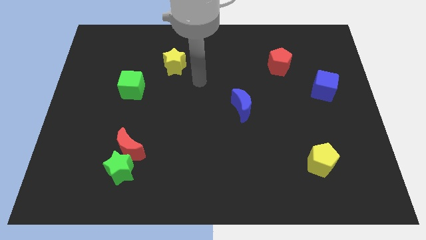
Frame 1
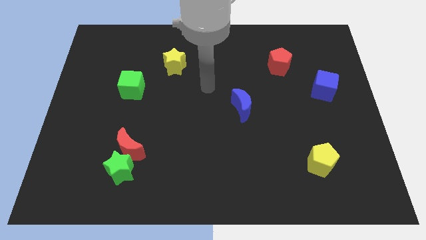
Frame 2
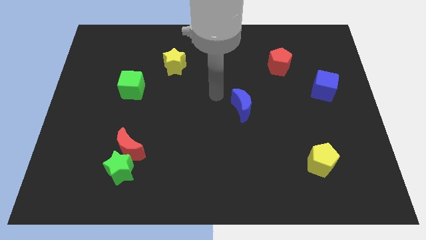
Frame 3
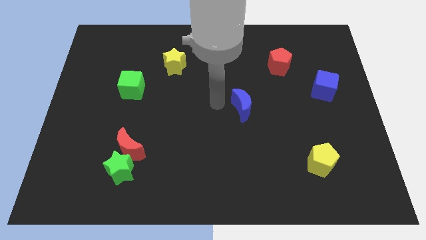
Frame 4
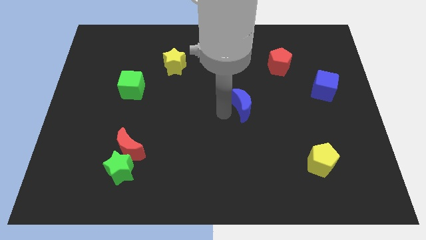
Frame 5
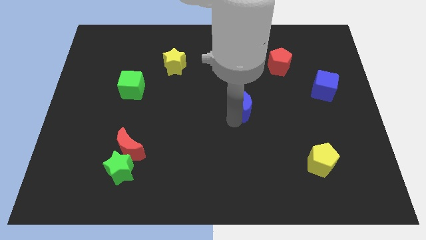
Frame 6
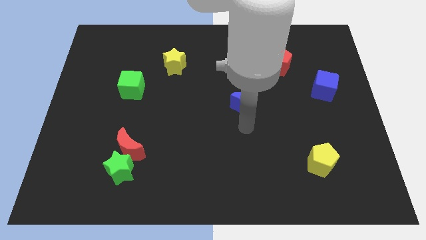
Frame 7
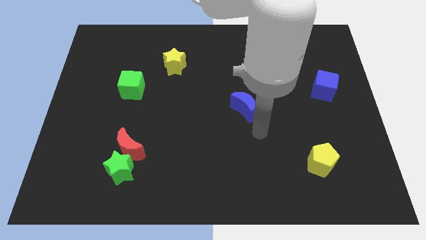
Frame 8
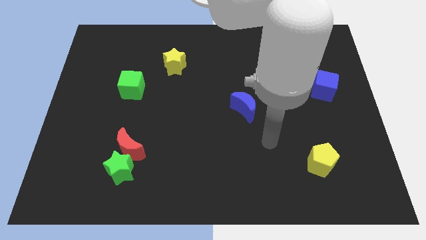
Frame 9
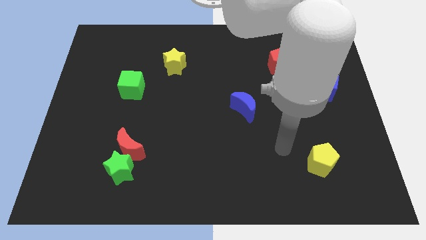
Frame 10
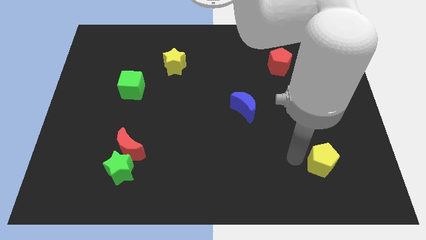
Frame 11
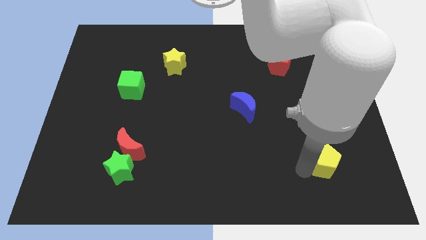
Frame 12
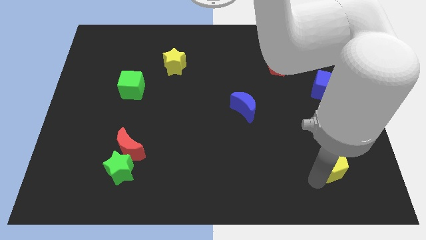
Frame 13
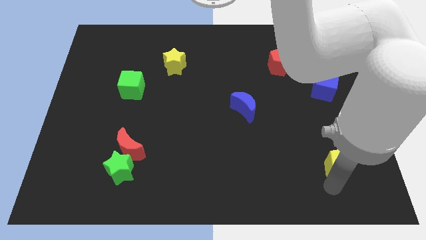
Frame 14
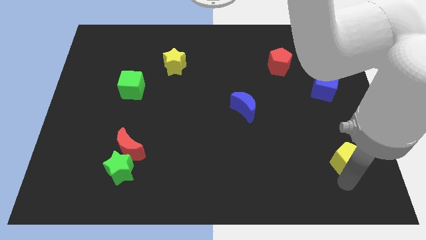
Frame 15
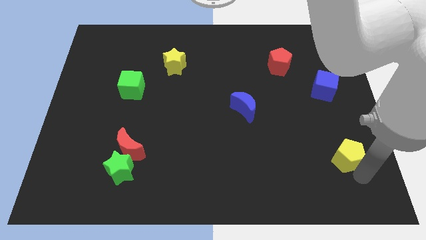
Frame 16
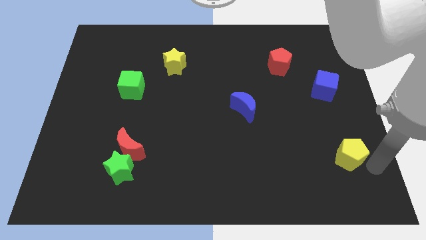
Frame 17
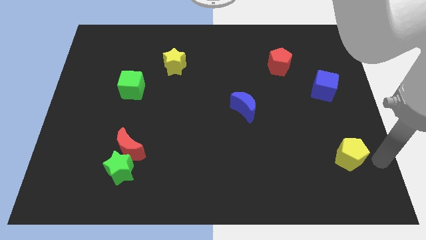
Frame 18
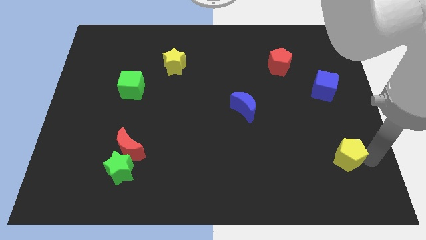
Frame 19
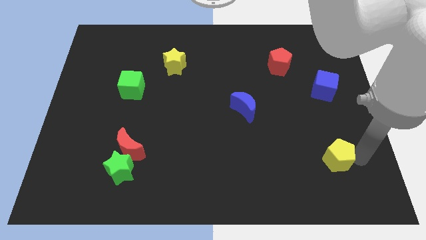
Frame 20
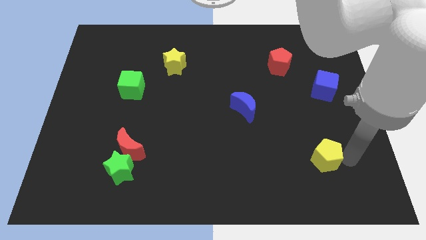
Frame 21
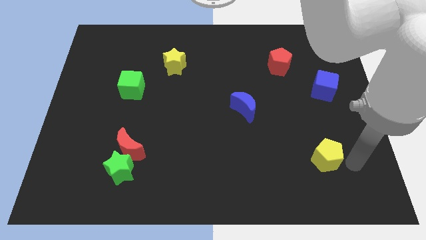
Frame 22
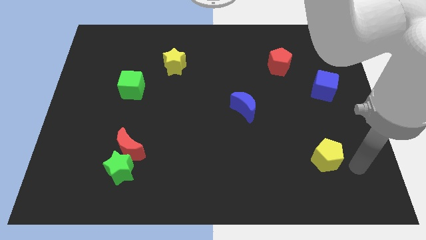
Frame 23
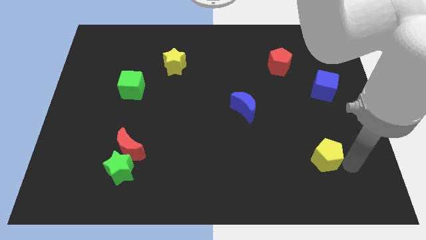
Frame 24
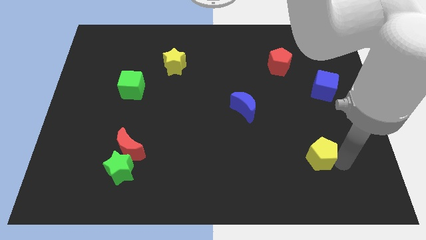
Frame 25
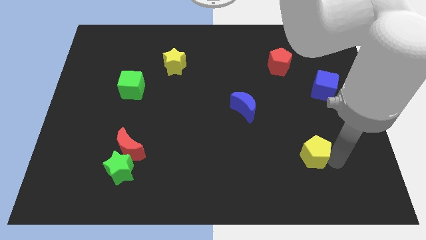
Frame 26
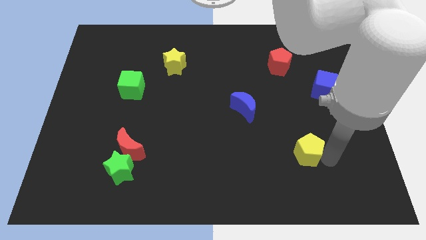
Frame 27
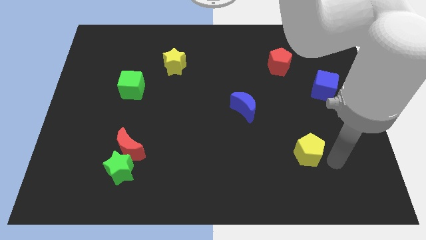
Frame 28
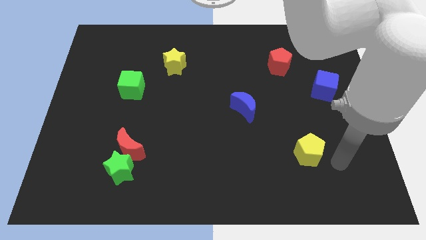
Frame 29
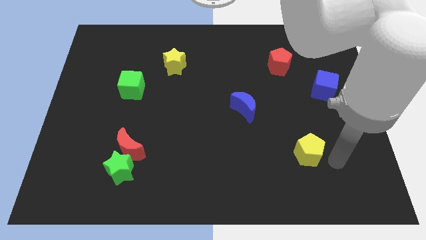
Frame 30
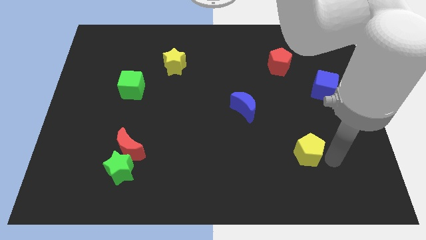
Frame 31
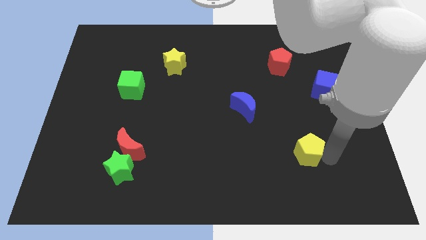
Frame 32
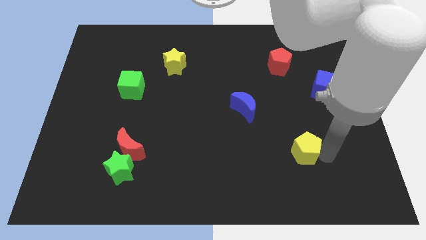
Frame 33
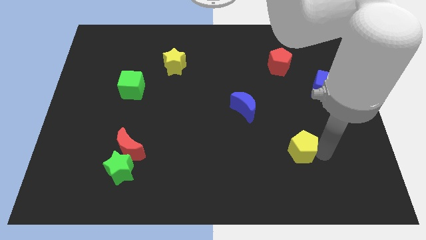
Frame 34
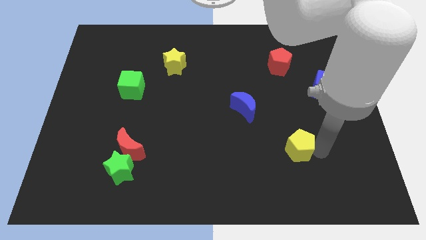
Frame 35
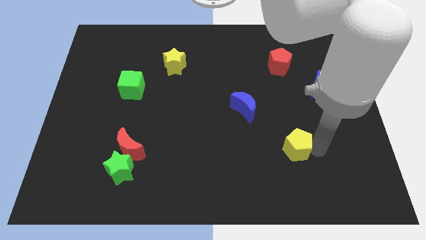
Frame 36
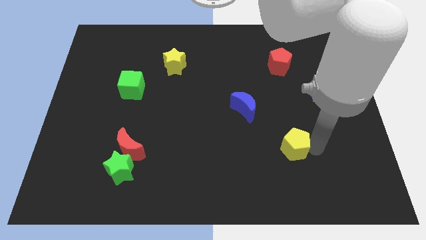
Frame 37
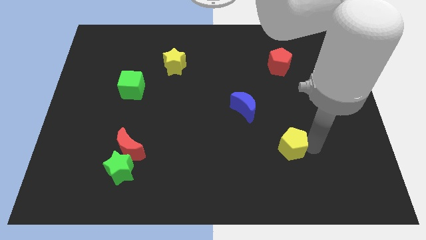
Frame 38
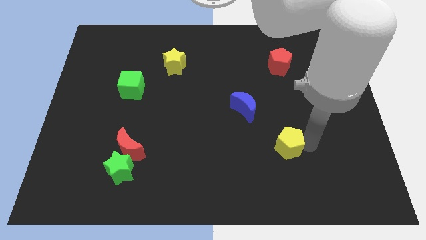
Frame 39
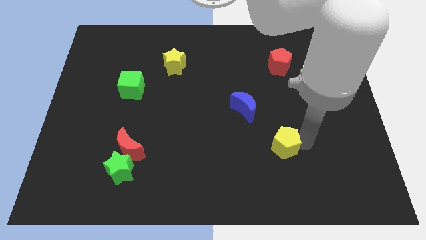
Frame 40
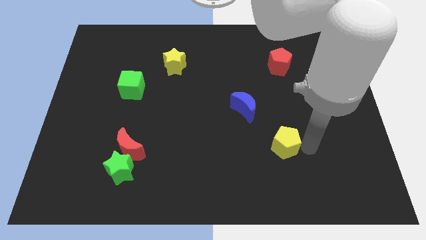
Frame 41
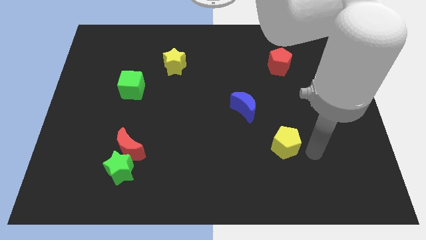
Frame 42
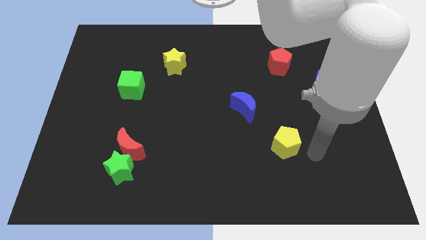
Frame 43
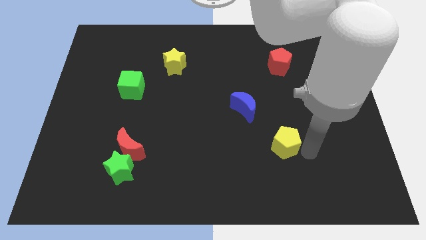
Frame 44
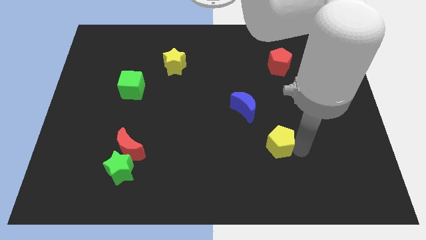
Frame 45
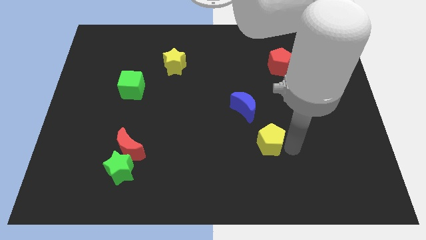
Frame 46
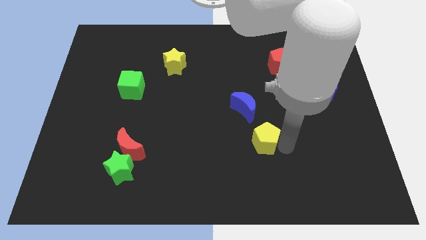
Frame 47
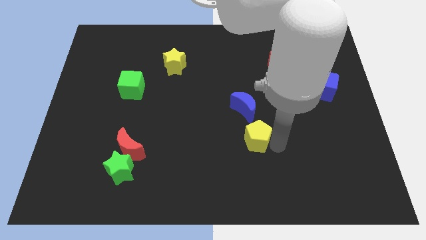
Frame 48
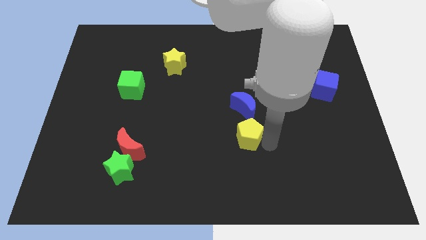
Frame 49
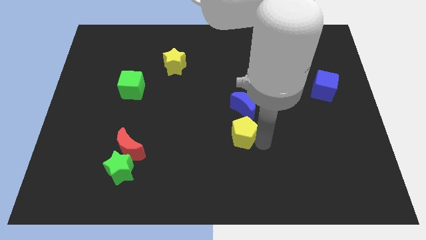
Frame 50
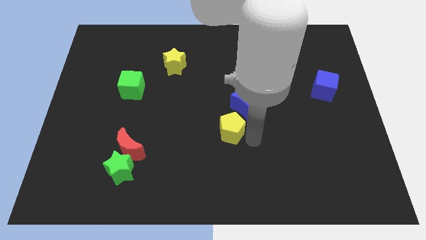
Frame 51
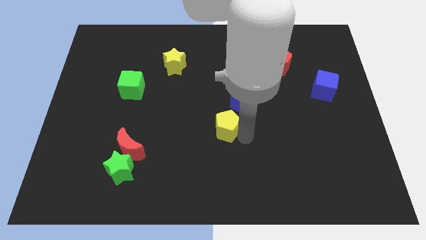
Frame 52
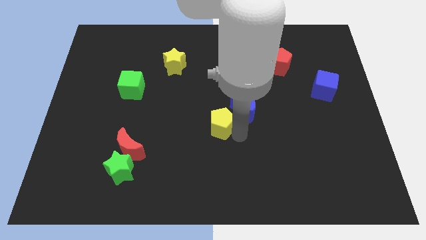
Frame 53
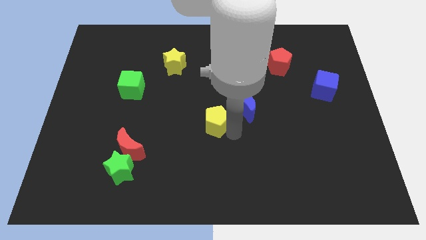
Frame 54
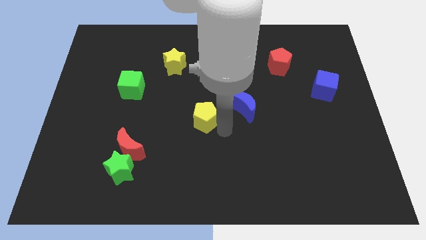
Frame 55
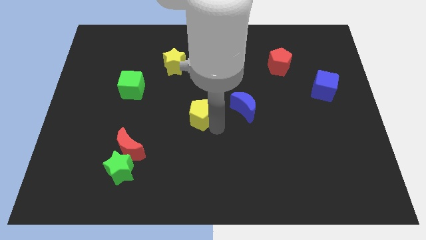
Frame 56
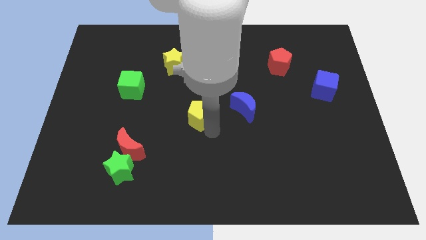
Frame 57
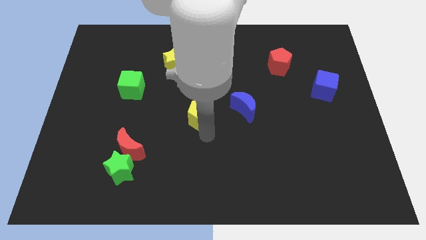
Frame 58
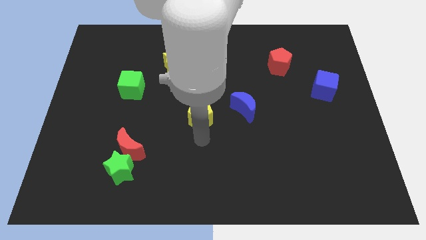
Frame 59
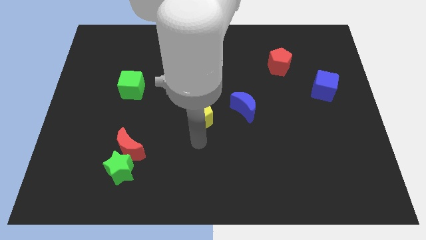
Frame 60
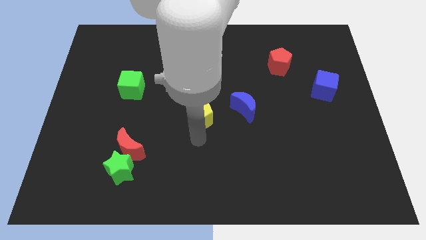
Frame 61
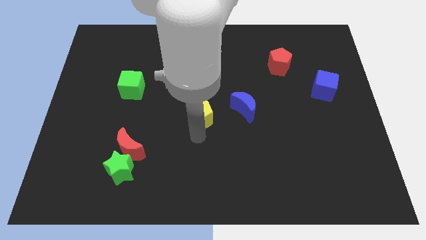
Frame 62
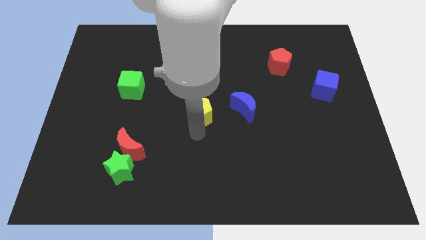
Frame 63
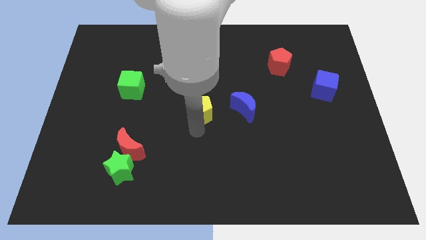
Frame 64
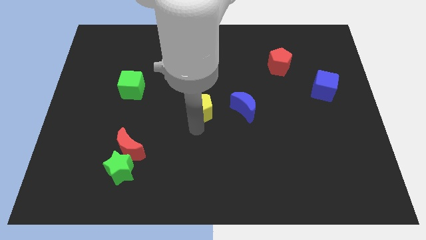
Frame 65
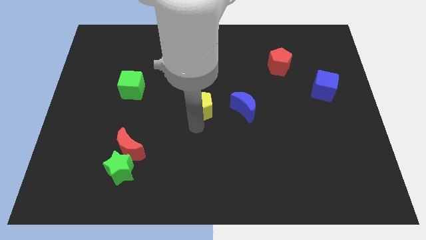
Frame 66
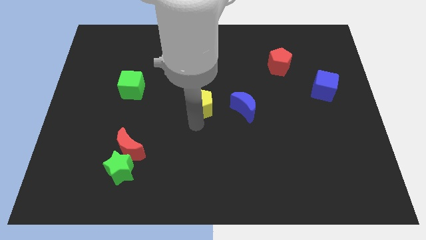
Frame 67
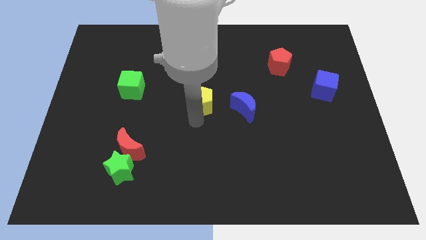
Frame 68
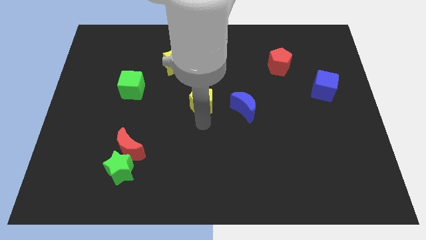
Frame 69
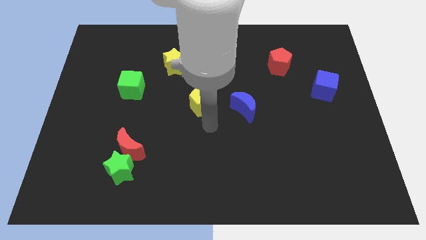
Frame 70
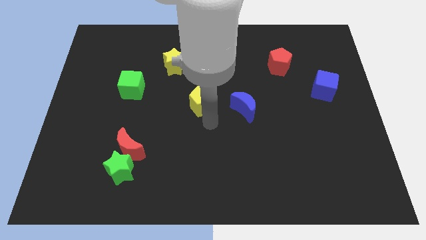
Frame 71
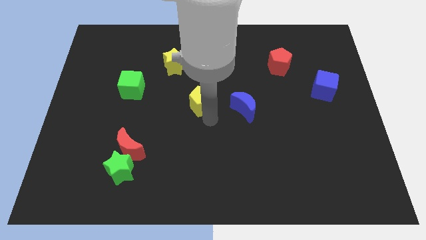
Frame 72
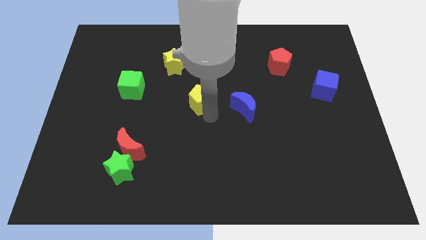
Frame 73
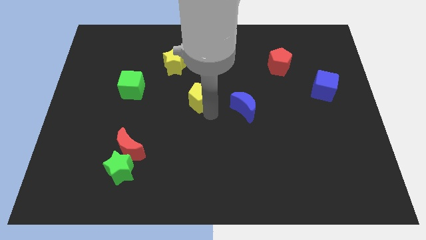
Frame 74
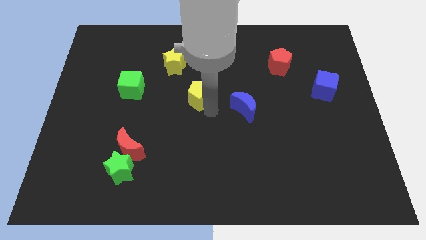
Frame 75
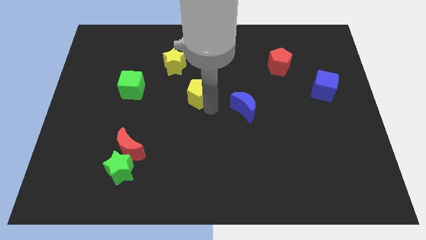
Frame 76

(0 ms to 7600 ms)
put the yellow pentagon diagonally down and to the right of the yellow star
